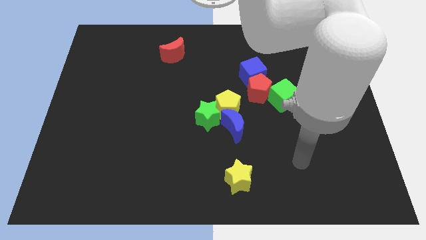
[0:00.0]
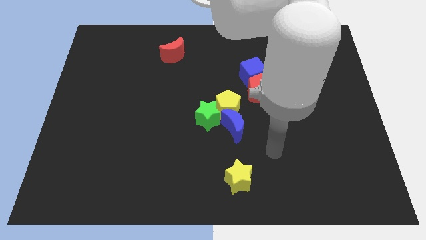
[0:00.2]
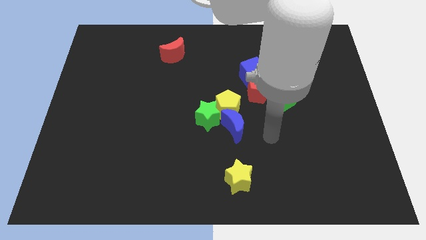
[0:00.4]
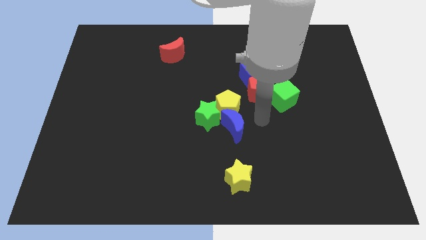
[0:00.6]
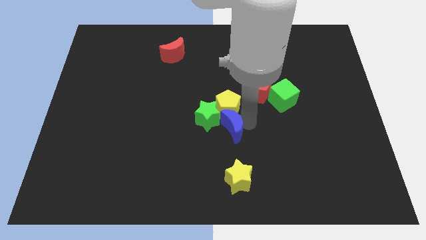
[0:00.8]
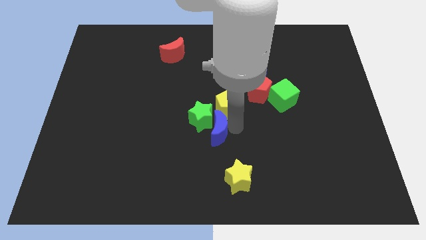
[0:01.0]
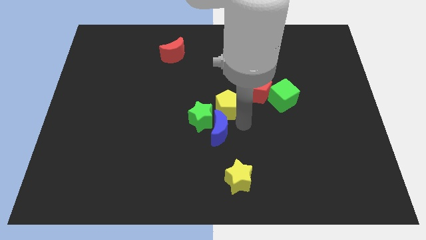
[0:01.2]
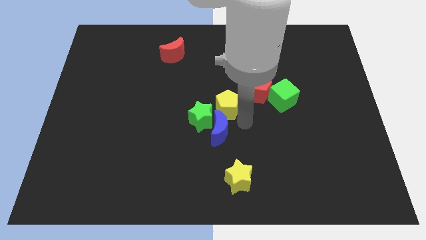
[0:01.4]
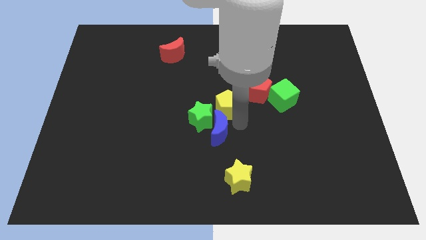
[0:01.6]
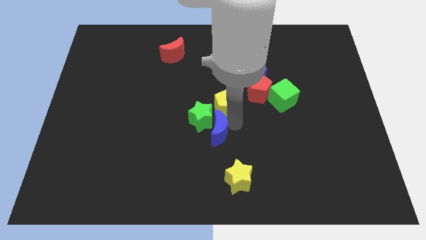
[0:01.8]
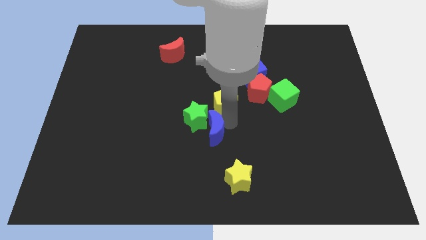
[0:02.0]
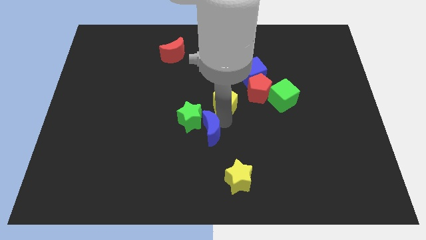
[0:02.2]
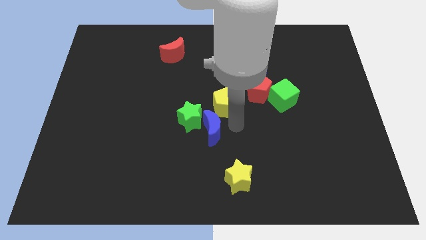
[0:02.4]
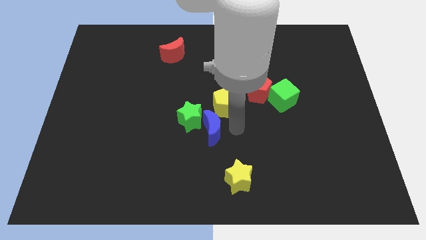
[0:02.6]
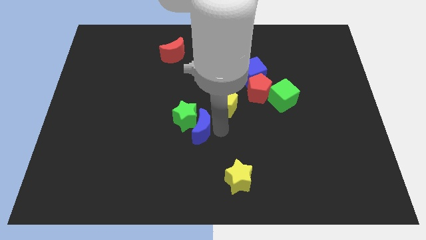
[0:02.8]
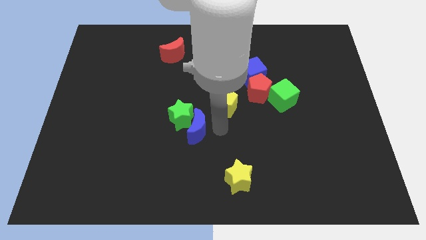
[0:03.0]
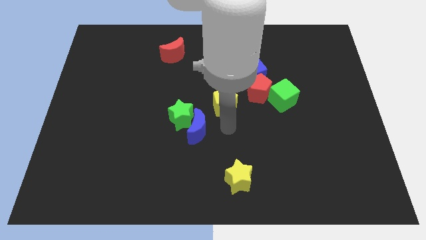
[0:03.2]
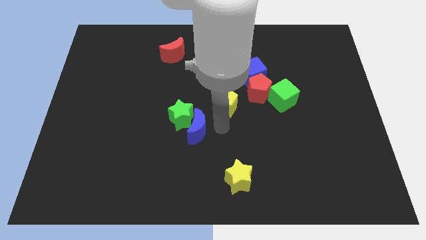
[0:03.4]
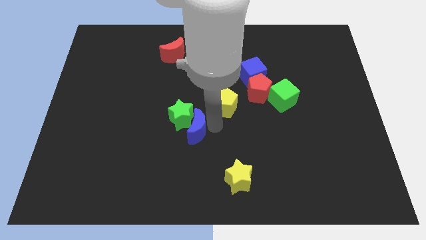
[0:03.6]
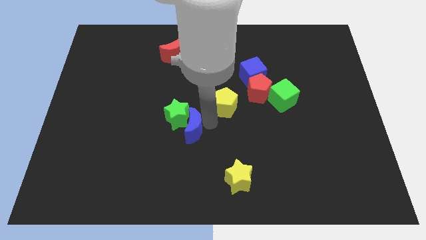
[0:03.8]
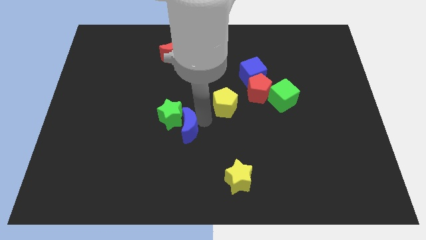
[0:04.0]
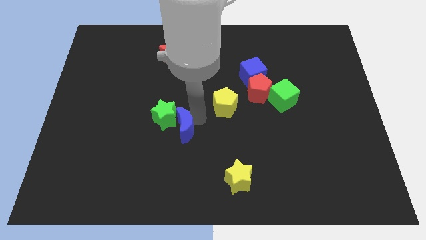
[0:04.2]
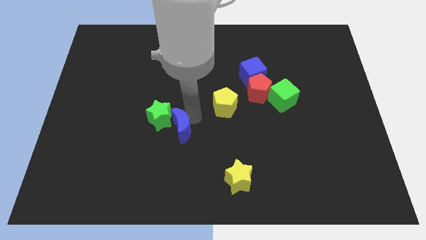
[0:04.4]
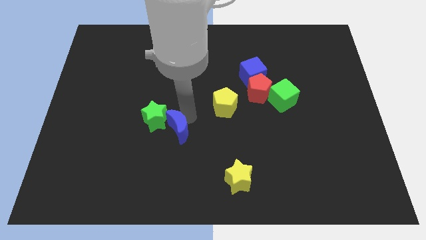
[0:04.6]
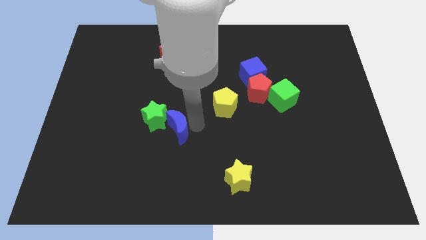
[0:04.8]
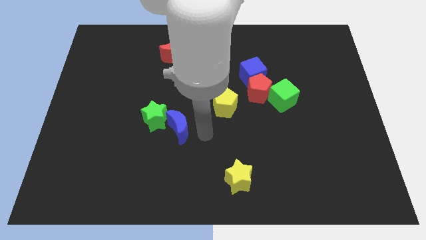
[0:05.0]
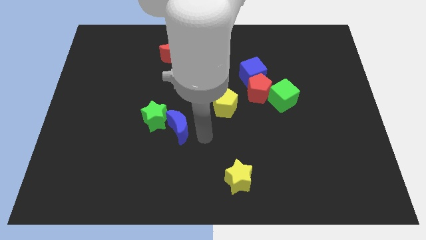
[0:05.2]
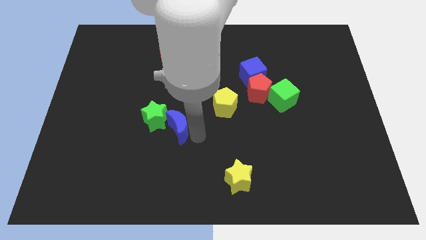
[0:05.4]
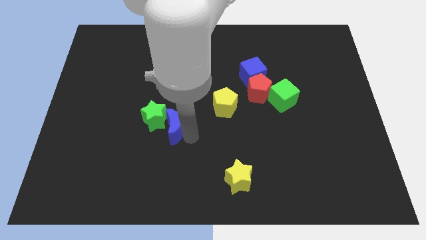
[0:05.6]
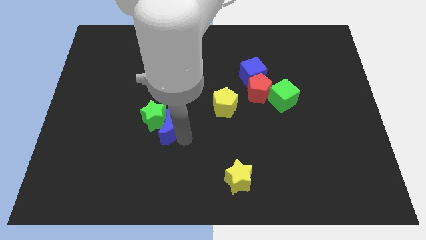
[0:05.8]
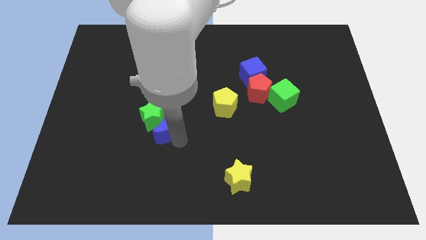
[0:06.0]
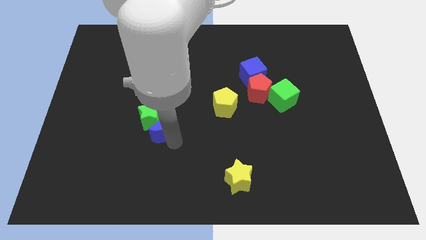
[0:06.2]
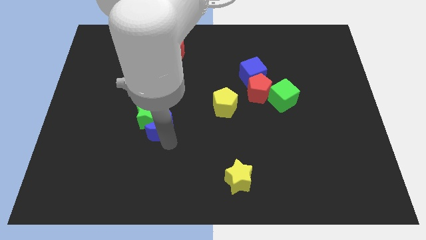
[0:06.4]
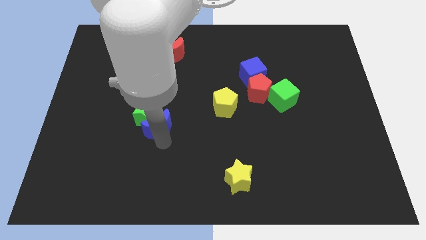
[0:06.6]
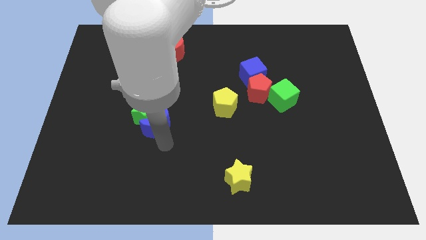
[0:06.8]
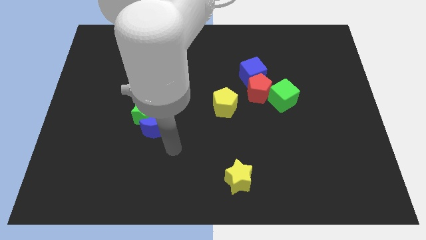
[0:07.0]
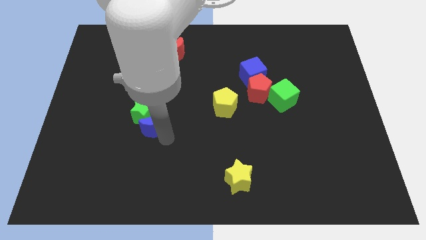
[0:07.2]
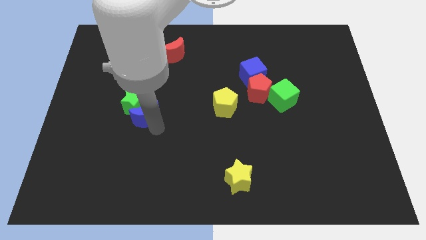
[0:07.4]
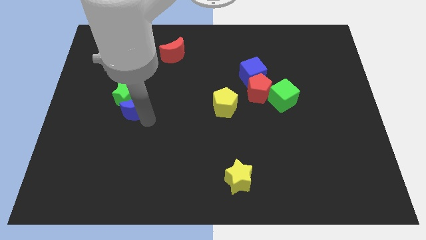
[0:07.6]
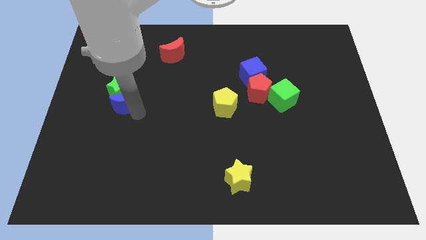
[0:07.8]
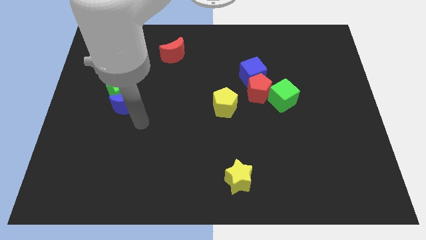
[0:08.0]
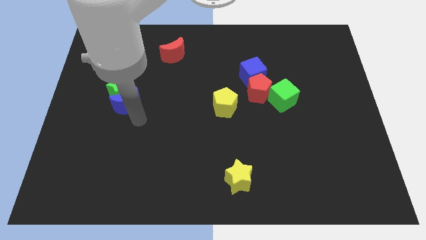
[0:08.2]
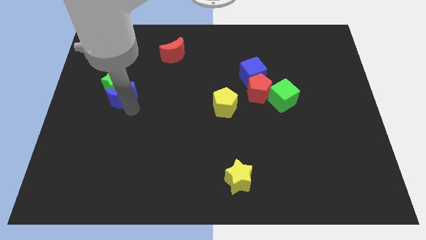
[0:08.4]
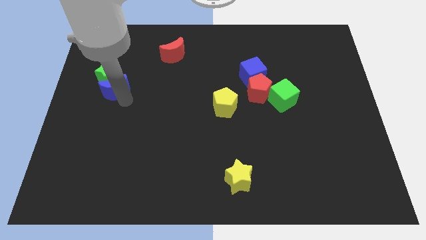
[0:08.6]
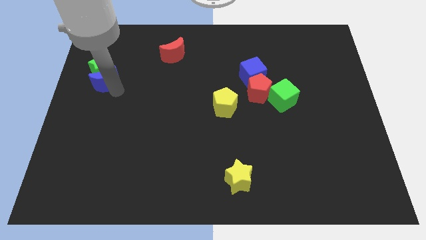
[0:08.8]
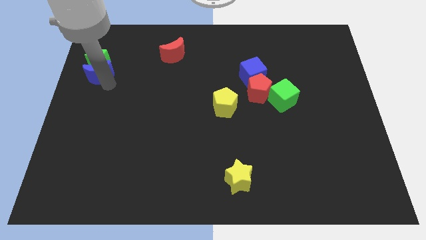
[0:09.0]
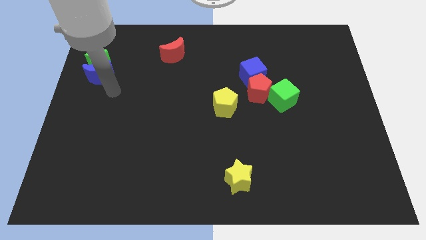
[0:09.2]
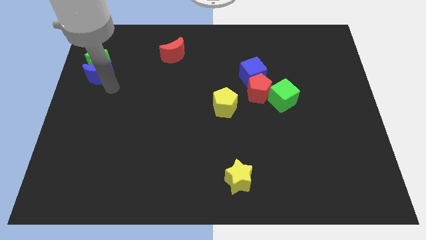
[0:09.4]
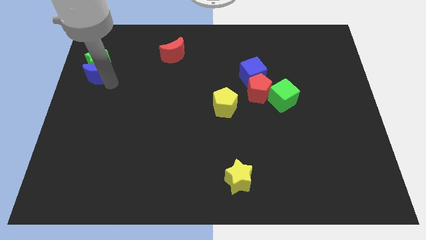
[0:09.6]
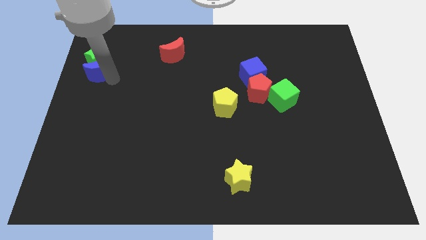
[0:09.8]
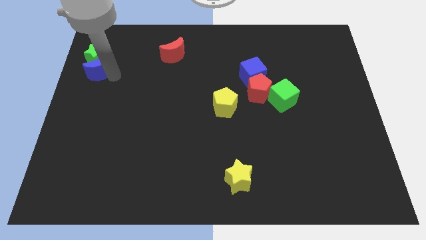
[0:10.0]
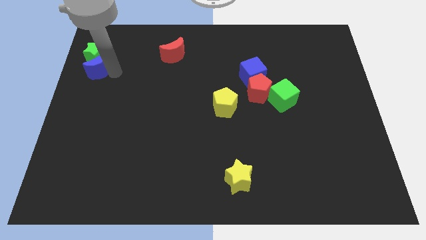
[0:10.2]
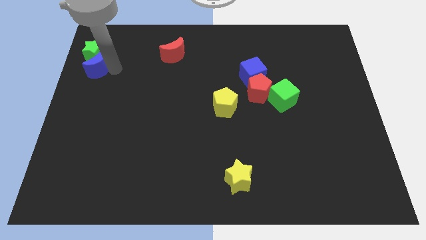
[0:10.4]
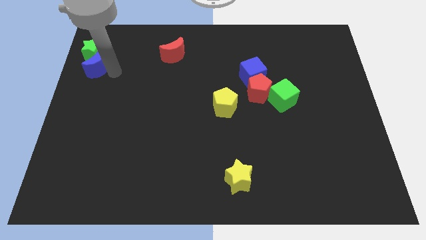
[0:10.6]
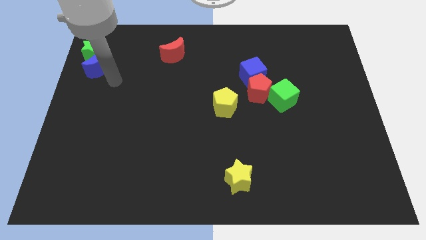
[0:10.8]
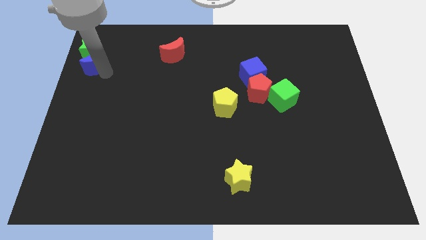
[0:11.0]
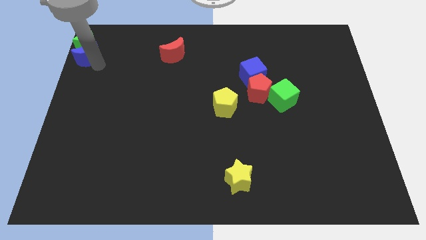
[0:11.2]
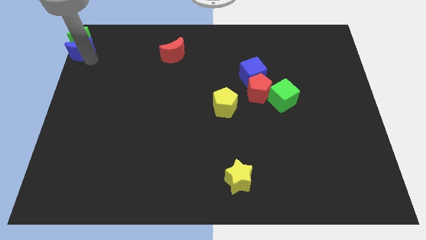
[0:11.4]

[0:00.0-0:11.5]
slide the blue moon to the top left of the board

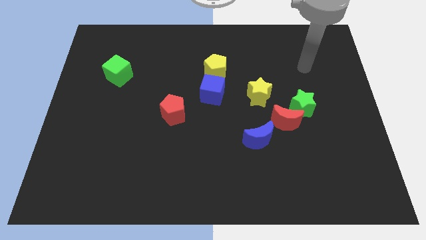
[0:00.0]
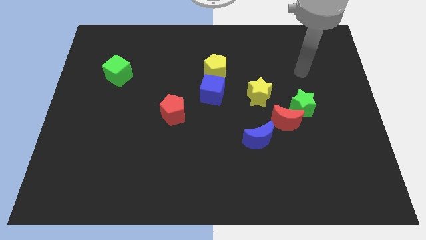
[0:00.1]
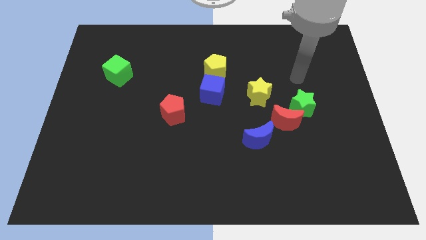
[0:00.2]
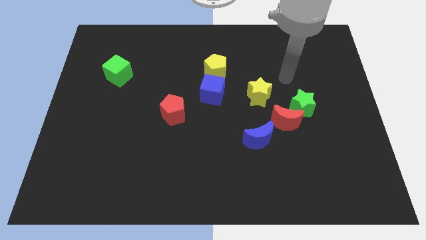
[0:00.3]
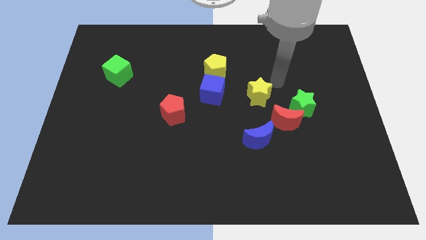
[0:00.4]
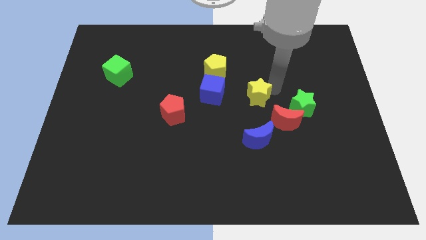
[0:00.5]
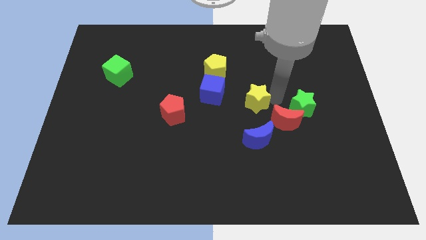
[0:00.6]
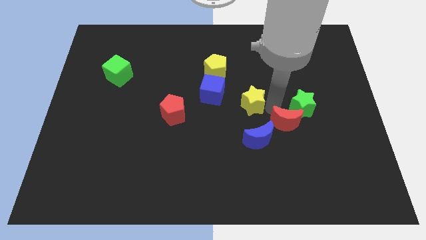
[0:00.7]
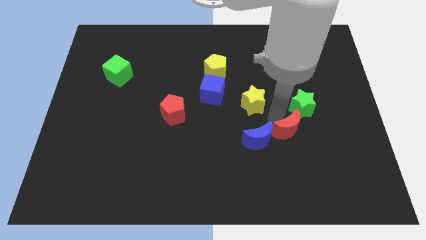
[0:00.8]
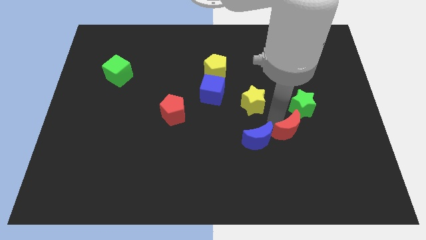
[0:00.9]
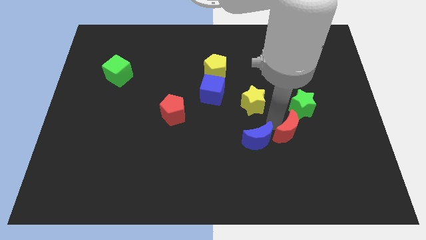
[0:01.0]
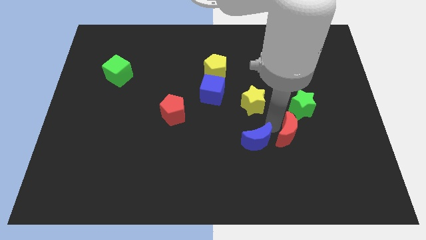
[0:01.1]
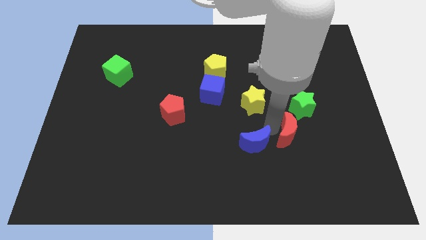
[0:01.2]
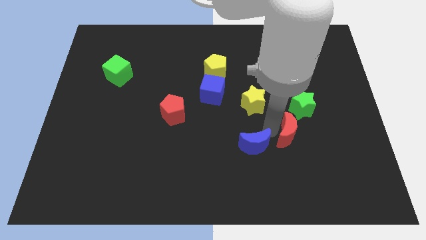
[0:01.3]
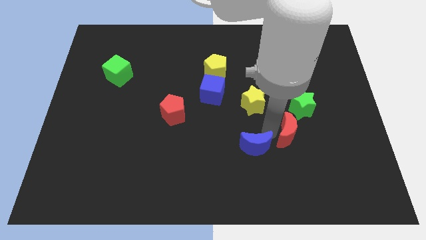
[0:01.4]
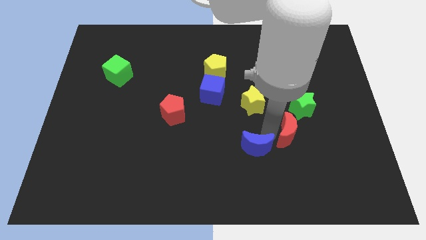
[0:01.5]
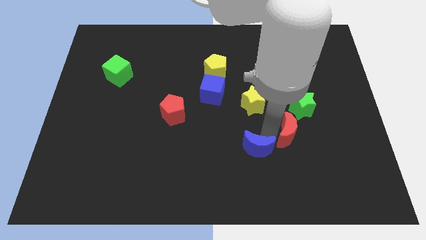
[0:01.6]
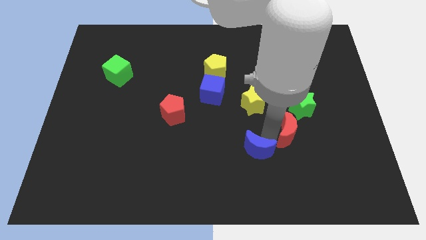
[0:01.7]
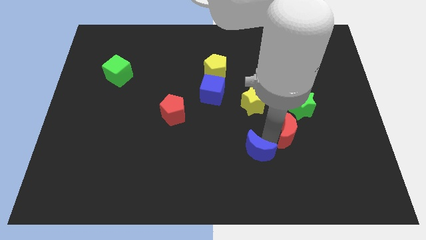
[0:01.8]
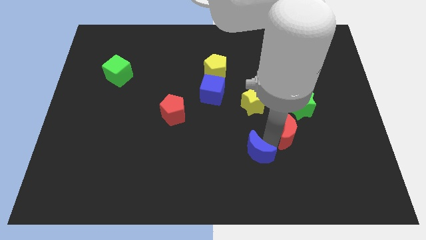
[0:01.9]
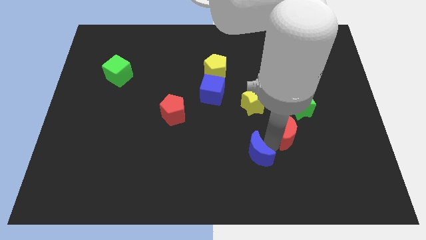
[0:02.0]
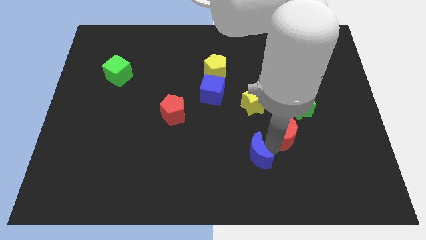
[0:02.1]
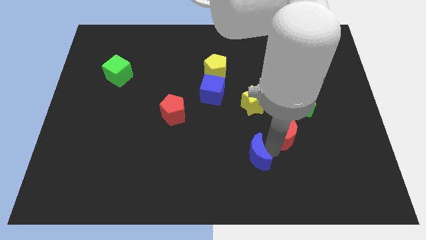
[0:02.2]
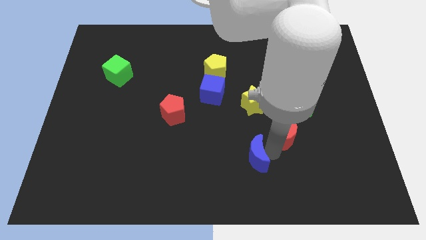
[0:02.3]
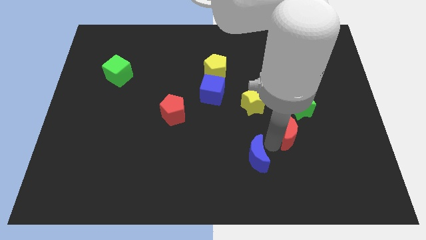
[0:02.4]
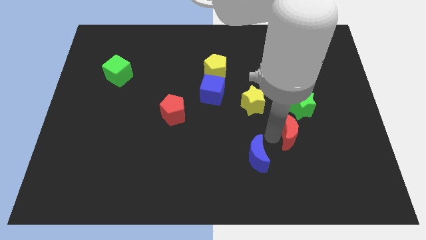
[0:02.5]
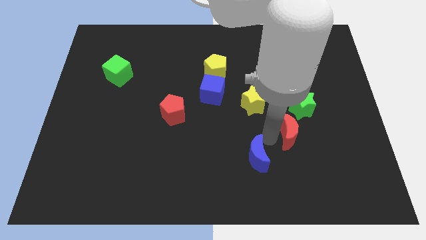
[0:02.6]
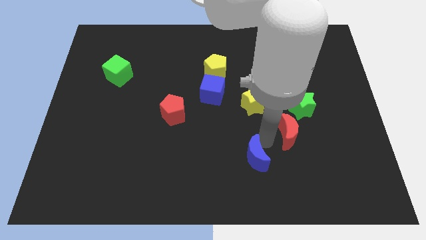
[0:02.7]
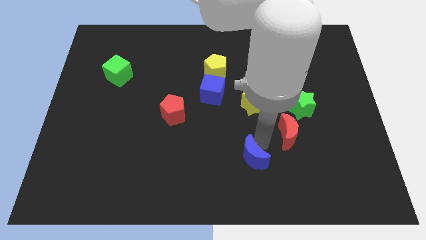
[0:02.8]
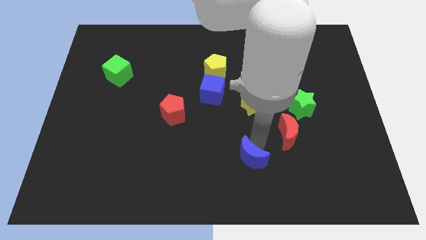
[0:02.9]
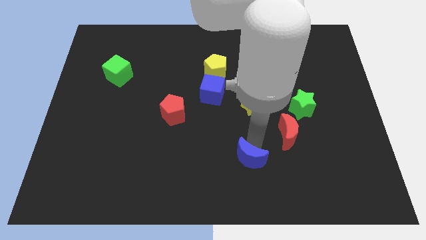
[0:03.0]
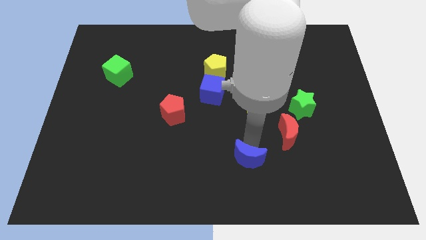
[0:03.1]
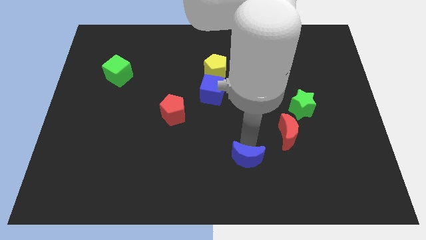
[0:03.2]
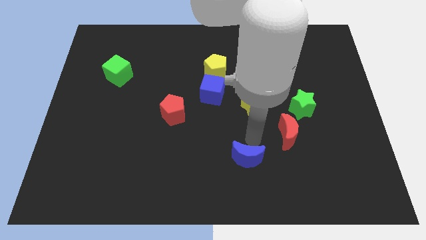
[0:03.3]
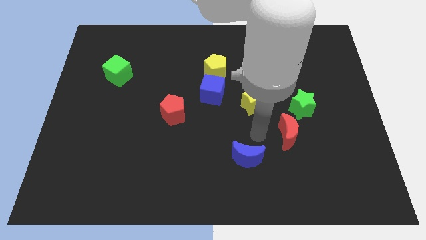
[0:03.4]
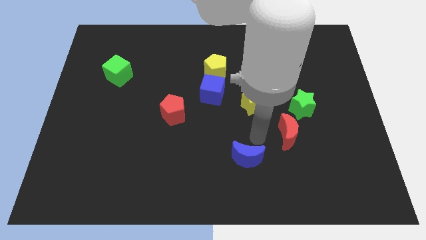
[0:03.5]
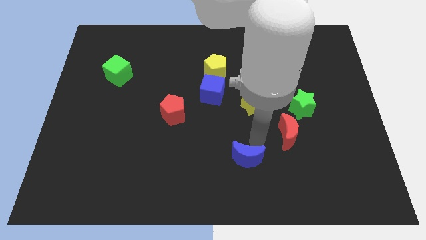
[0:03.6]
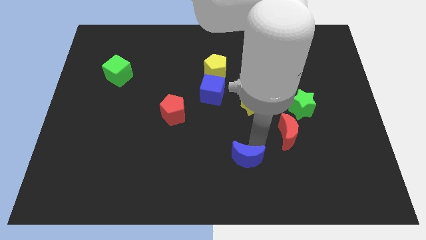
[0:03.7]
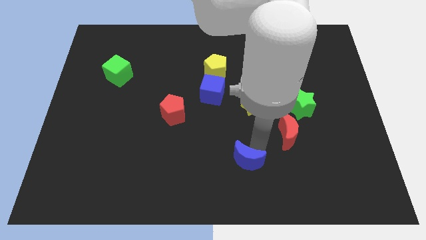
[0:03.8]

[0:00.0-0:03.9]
slide the blue moon to the bottom
